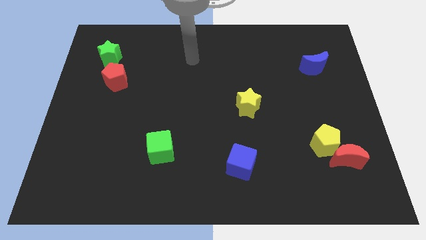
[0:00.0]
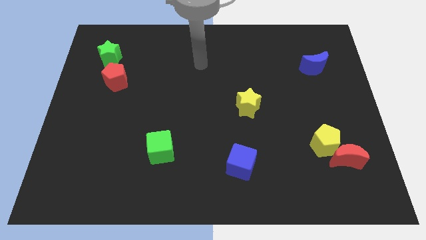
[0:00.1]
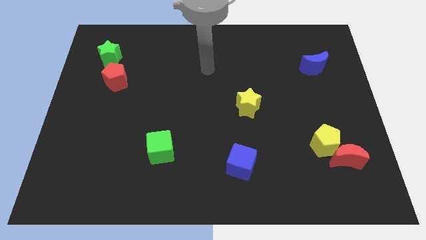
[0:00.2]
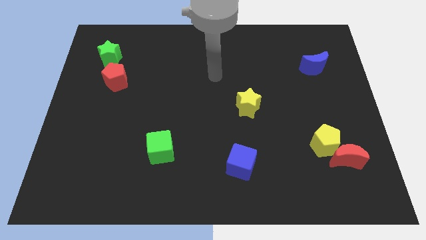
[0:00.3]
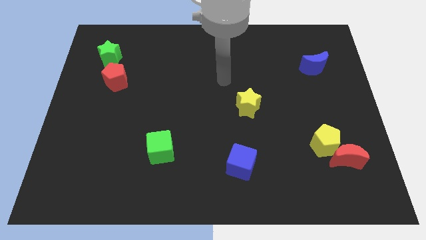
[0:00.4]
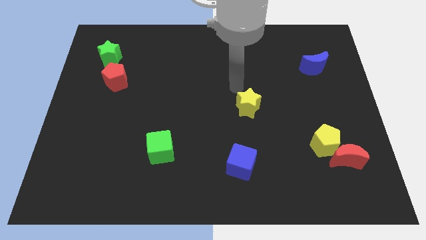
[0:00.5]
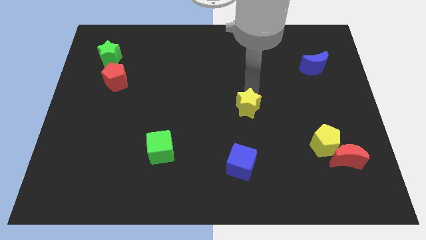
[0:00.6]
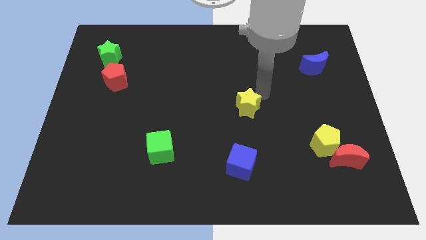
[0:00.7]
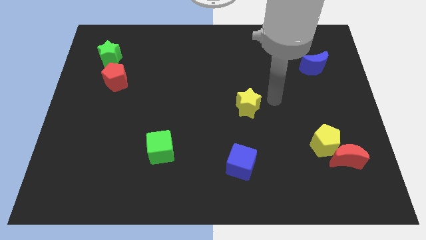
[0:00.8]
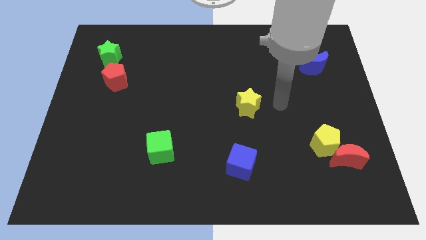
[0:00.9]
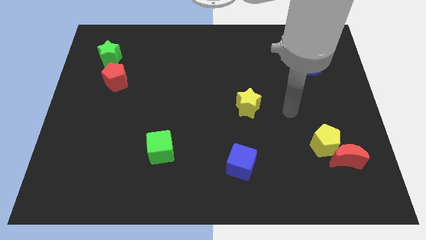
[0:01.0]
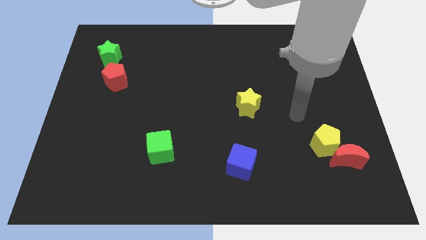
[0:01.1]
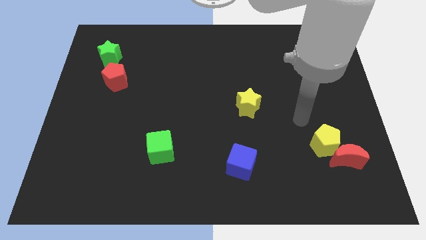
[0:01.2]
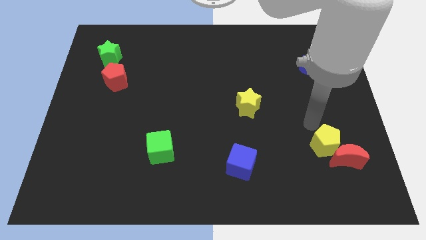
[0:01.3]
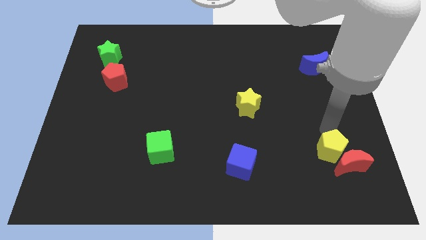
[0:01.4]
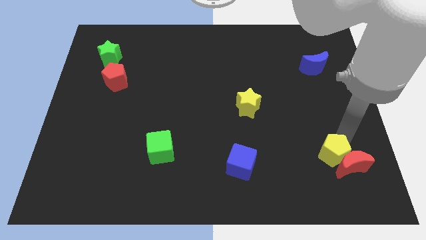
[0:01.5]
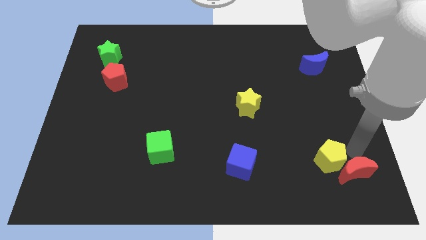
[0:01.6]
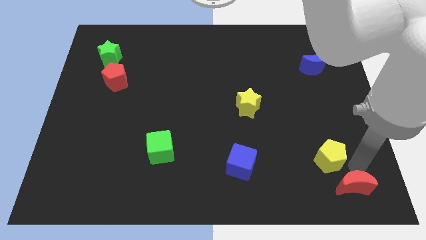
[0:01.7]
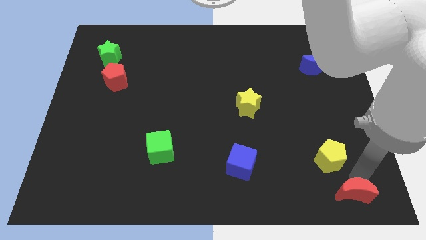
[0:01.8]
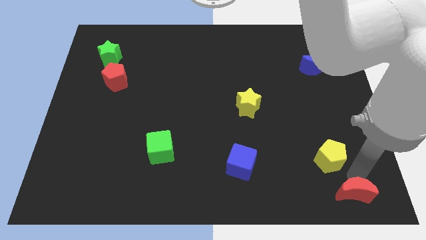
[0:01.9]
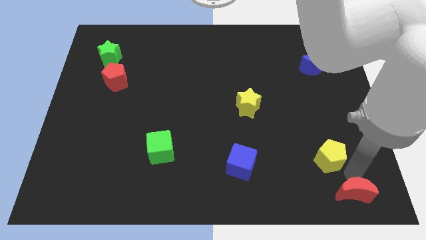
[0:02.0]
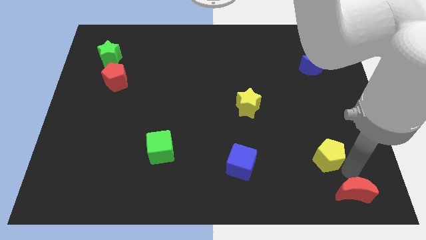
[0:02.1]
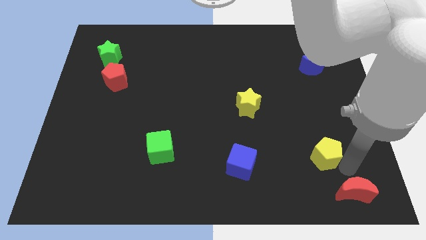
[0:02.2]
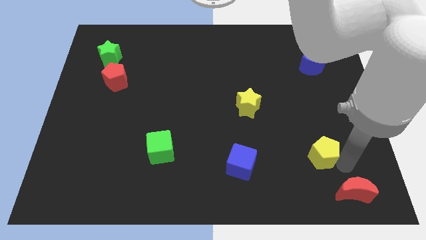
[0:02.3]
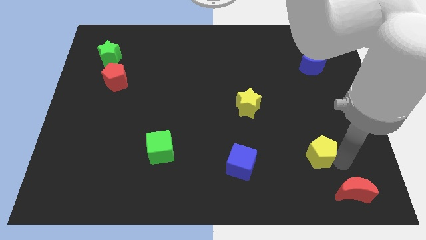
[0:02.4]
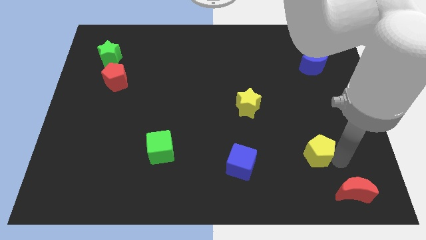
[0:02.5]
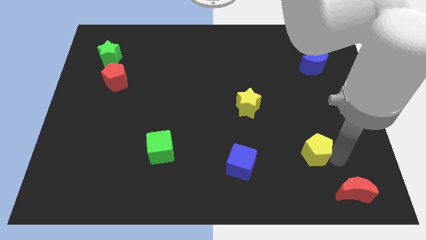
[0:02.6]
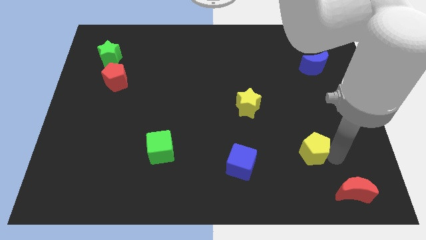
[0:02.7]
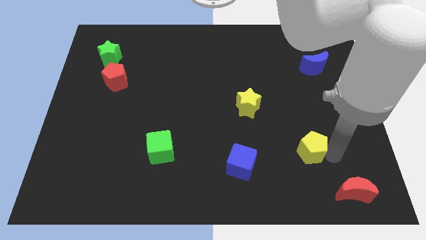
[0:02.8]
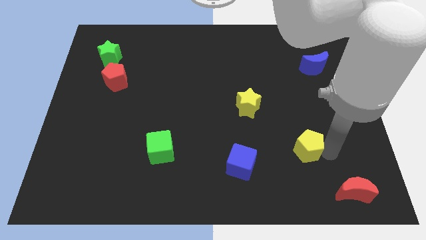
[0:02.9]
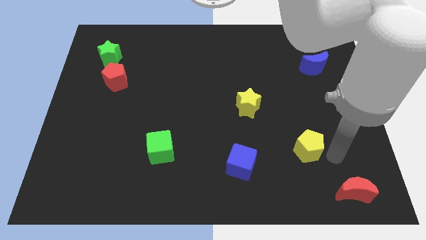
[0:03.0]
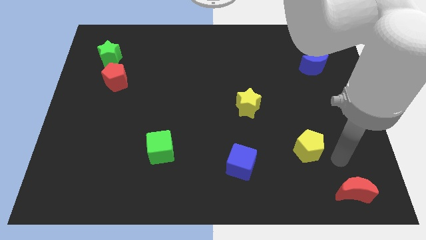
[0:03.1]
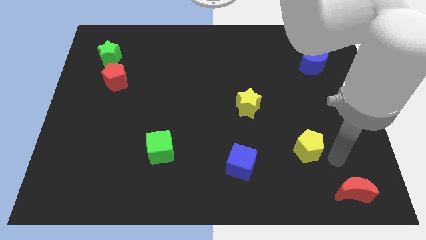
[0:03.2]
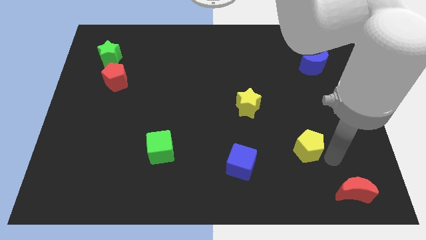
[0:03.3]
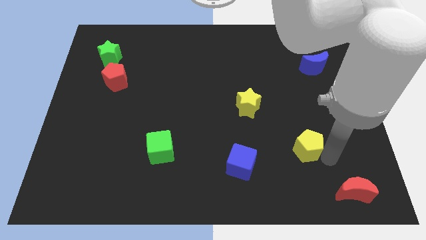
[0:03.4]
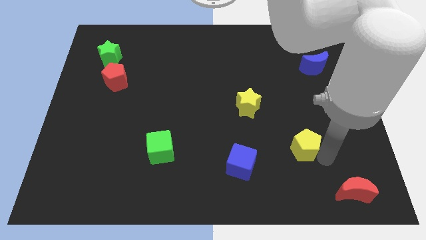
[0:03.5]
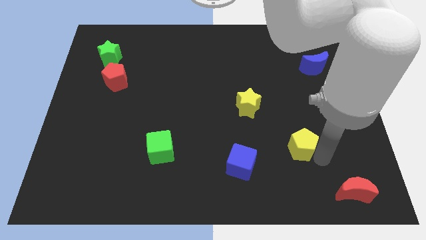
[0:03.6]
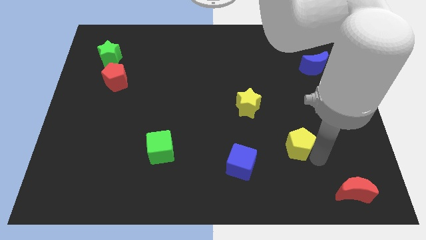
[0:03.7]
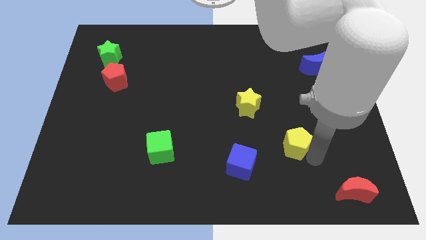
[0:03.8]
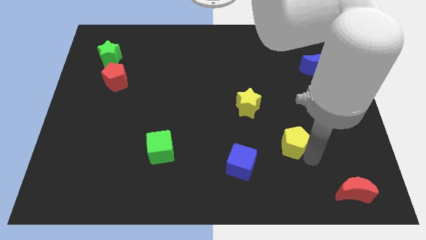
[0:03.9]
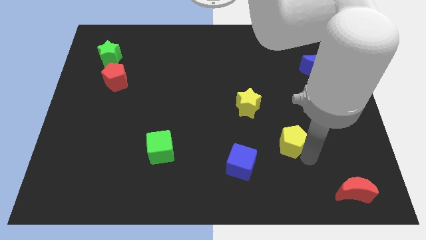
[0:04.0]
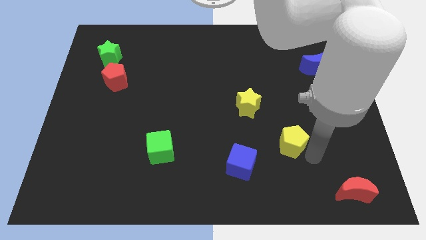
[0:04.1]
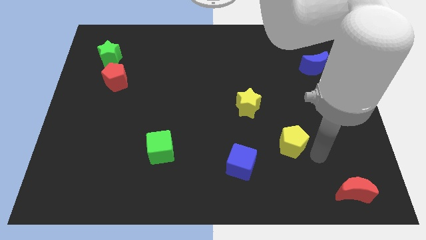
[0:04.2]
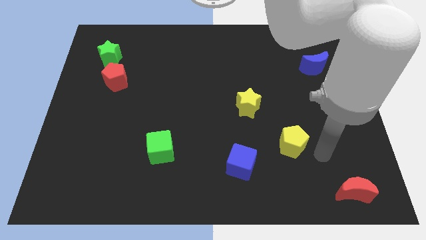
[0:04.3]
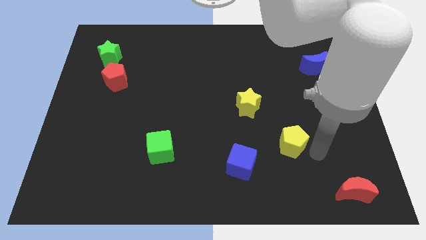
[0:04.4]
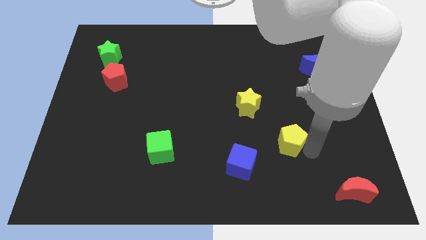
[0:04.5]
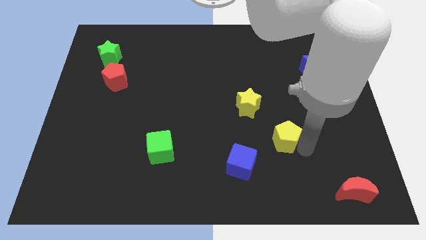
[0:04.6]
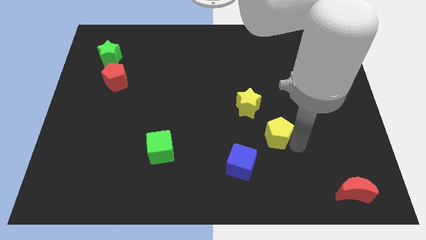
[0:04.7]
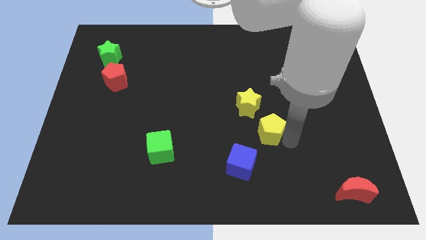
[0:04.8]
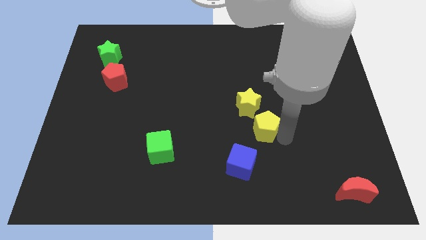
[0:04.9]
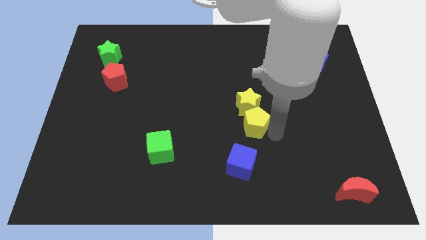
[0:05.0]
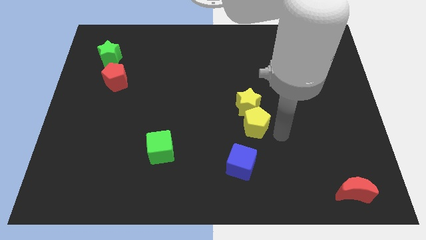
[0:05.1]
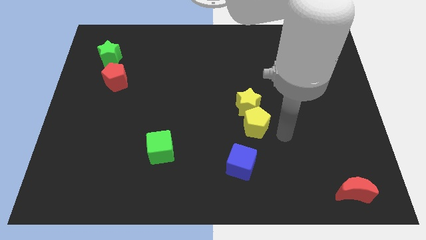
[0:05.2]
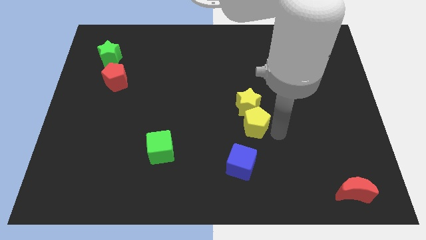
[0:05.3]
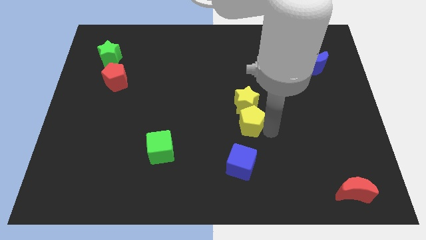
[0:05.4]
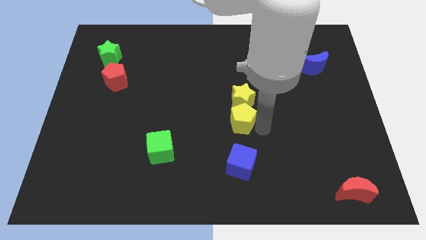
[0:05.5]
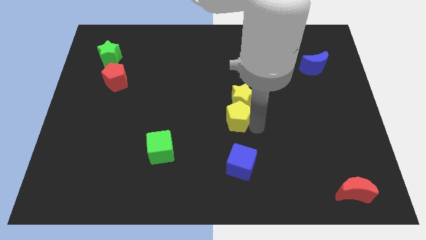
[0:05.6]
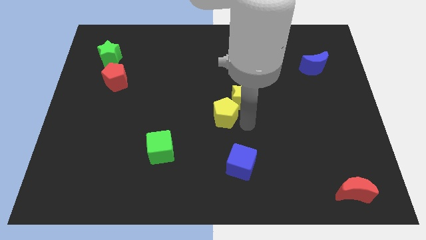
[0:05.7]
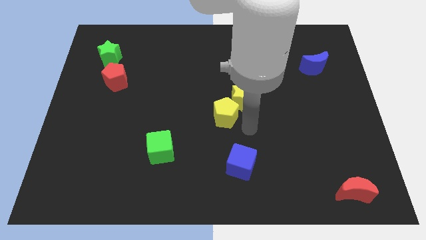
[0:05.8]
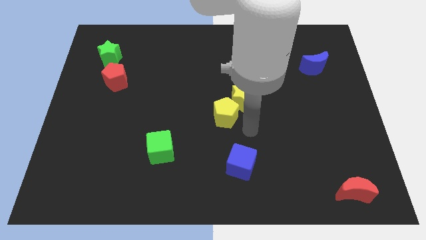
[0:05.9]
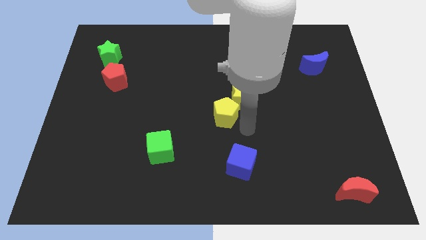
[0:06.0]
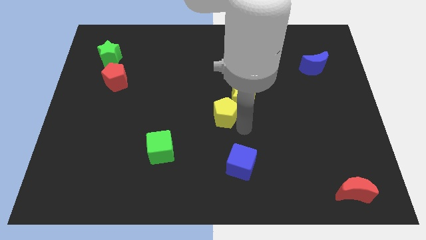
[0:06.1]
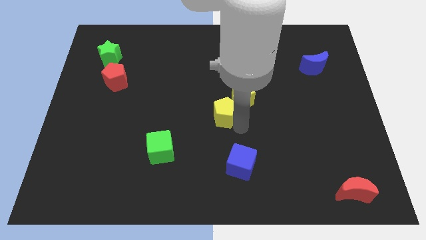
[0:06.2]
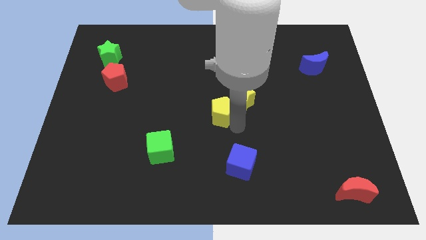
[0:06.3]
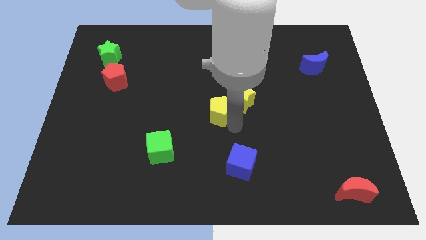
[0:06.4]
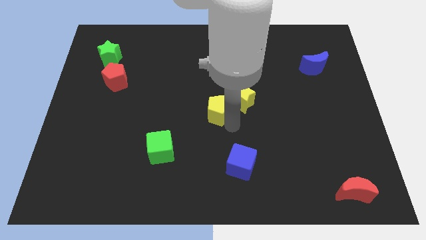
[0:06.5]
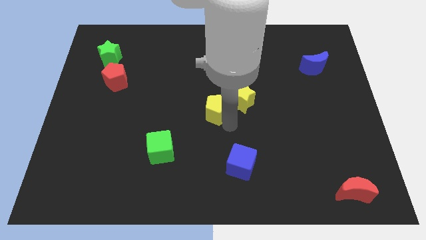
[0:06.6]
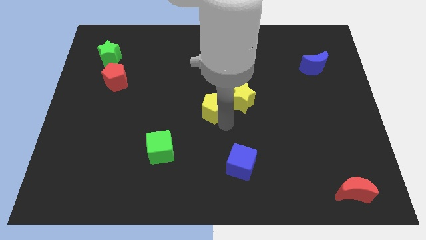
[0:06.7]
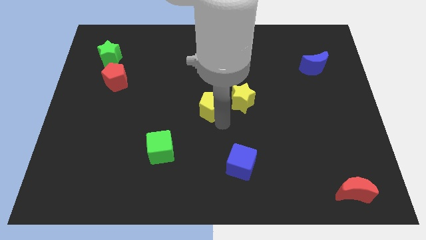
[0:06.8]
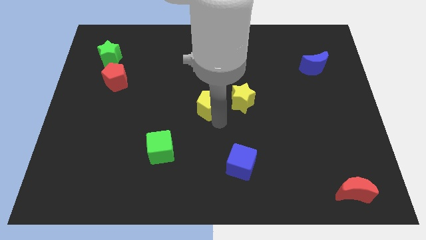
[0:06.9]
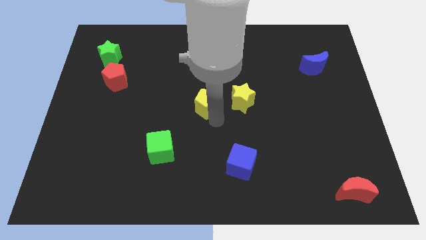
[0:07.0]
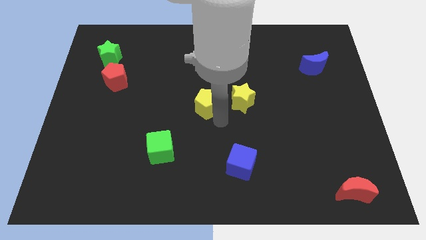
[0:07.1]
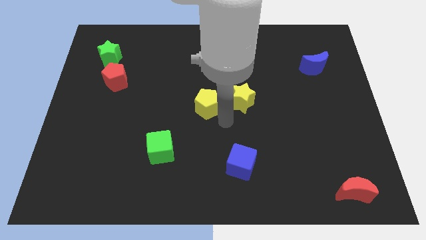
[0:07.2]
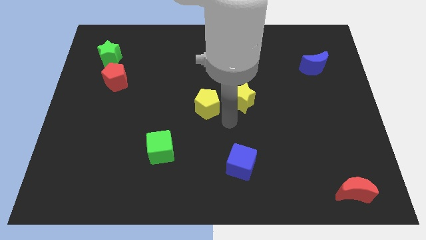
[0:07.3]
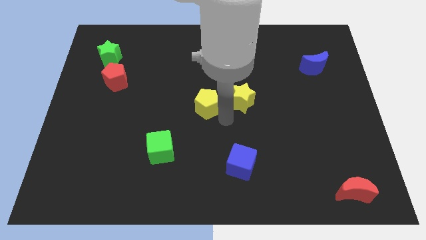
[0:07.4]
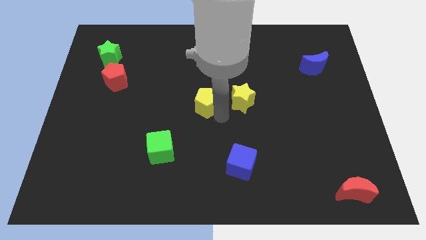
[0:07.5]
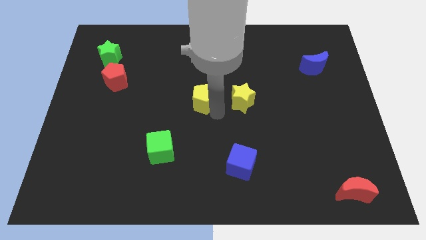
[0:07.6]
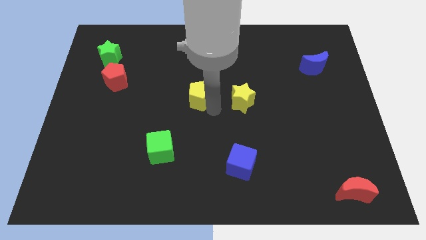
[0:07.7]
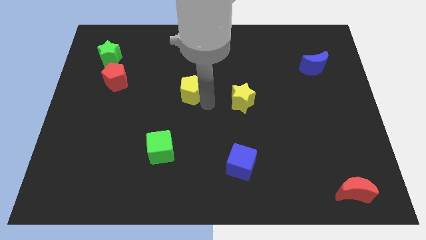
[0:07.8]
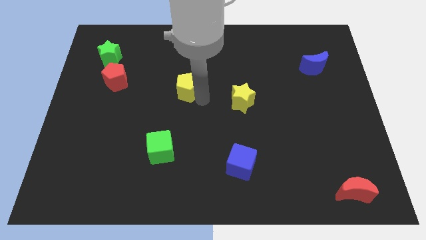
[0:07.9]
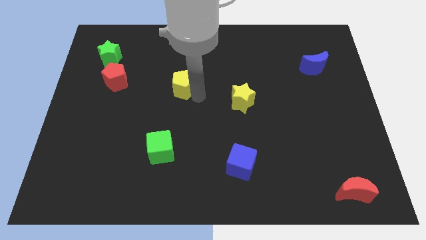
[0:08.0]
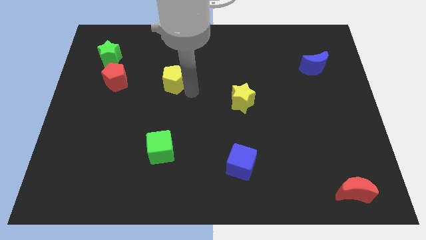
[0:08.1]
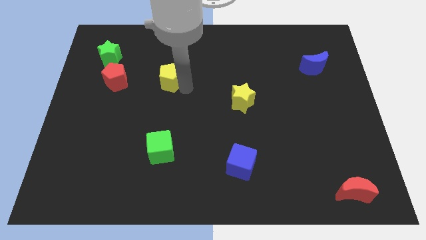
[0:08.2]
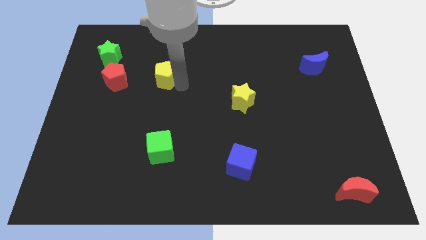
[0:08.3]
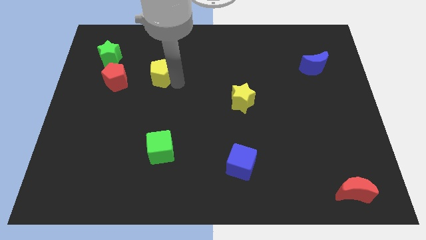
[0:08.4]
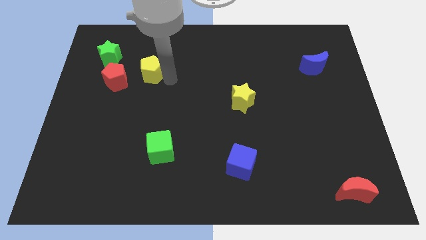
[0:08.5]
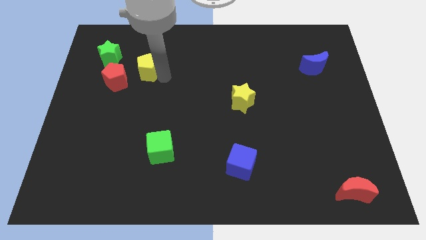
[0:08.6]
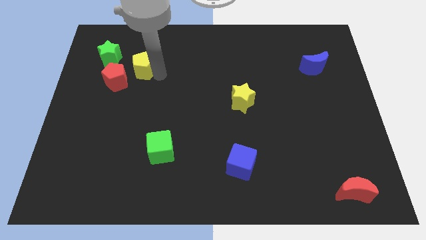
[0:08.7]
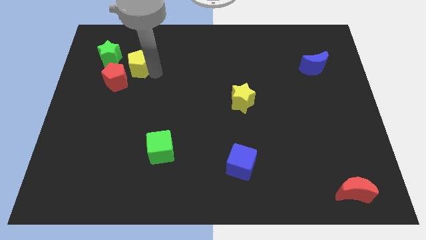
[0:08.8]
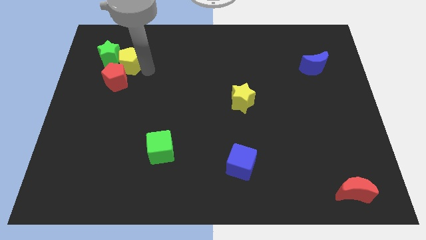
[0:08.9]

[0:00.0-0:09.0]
slide the yellow pentagon to the green star
